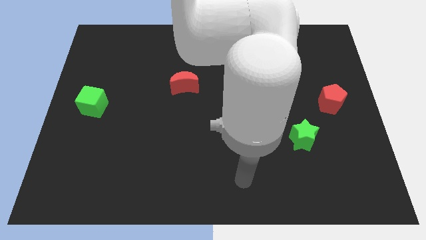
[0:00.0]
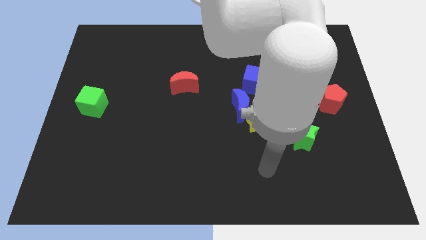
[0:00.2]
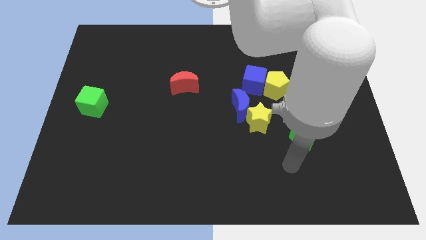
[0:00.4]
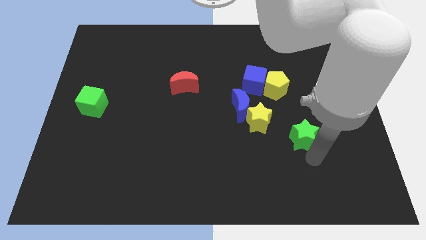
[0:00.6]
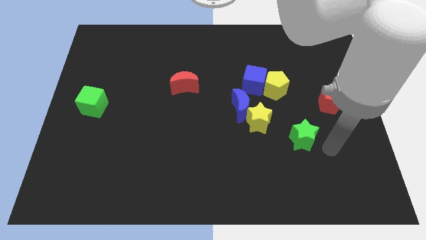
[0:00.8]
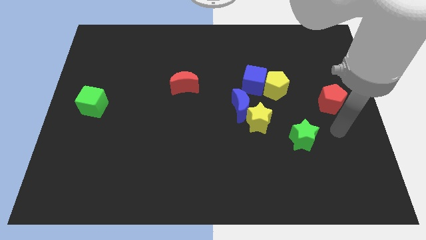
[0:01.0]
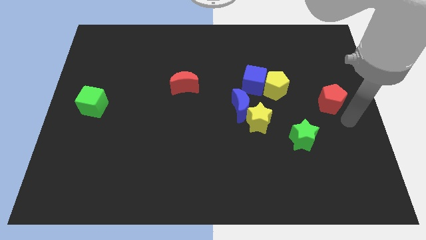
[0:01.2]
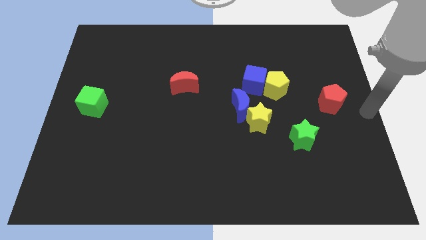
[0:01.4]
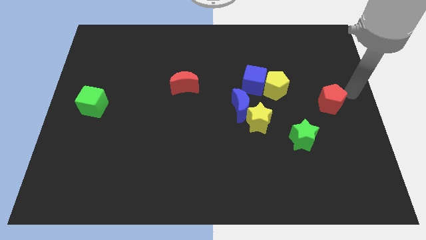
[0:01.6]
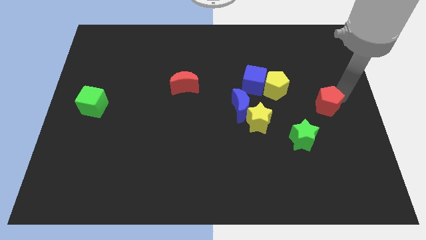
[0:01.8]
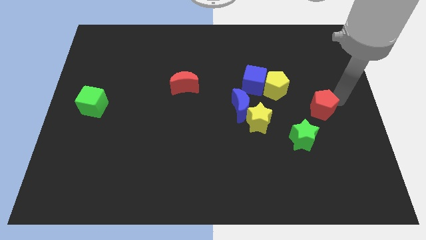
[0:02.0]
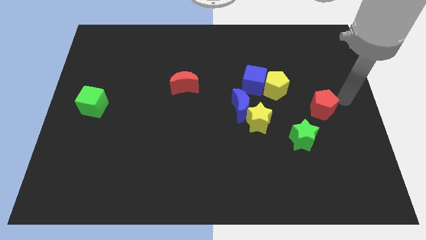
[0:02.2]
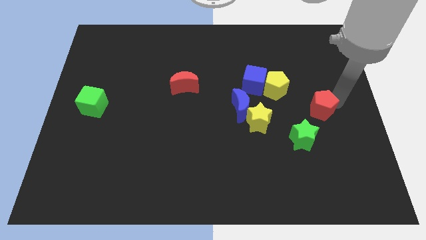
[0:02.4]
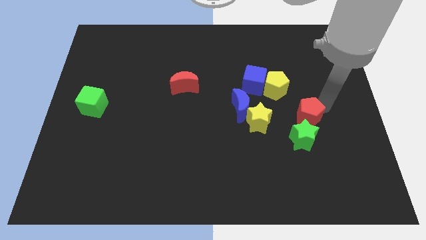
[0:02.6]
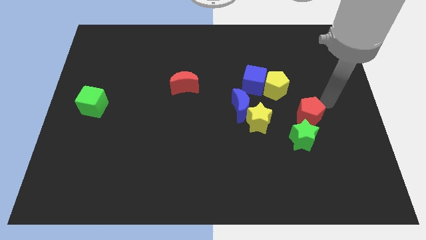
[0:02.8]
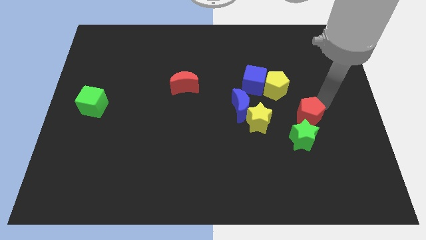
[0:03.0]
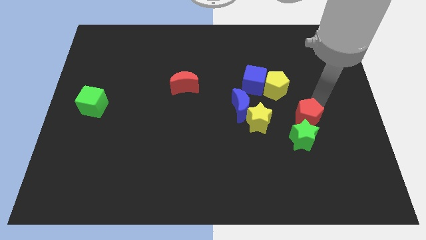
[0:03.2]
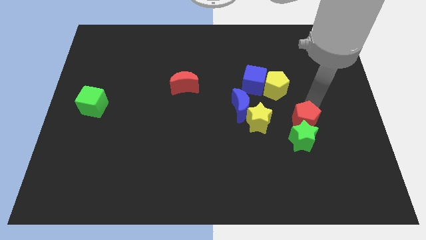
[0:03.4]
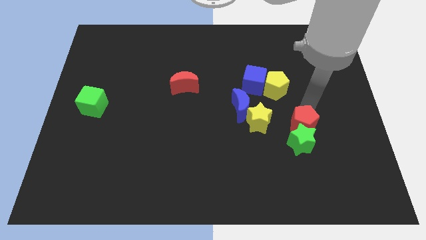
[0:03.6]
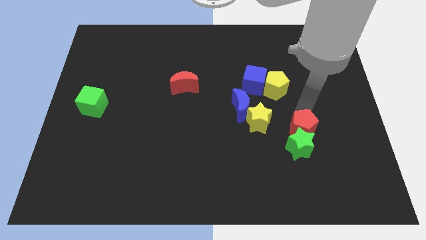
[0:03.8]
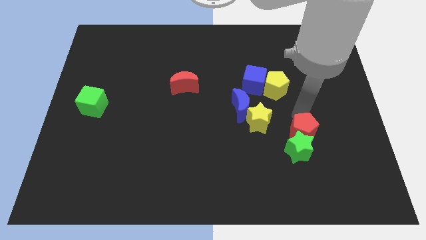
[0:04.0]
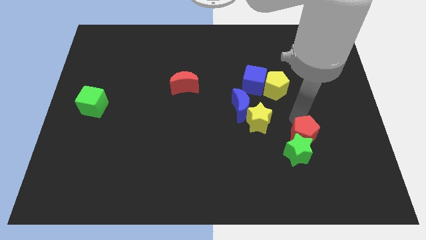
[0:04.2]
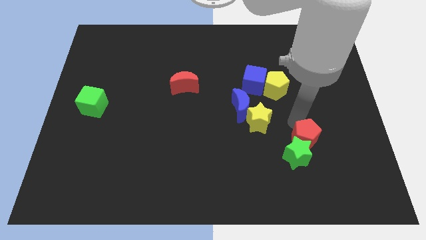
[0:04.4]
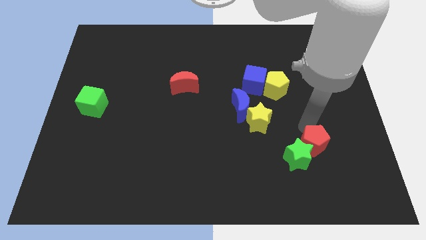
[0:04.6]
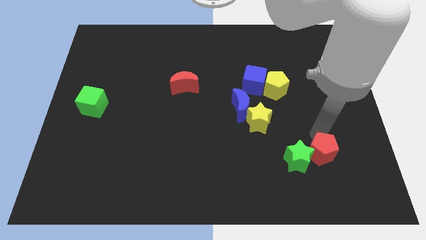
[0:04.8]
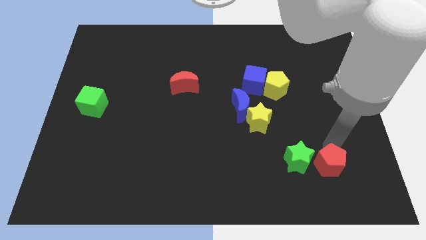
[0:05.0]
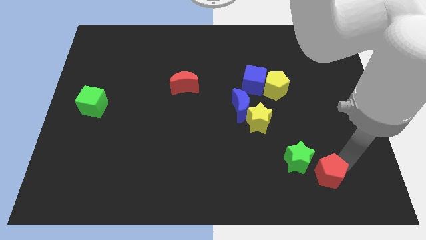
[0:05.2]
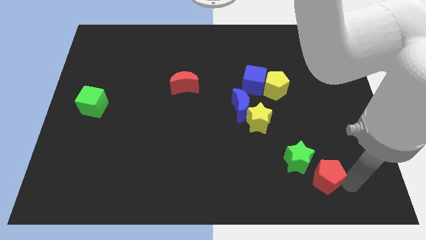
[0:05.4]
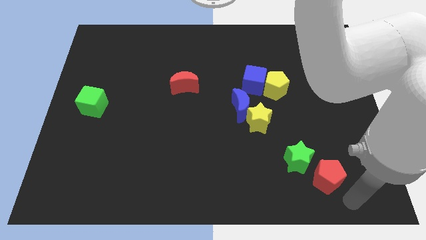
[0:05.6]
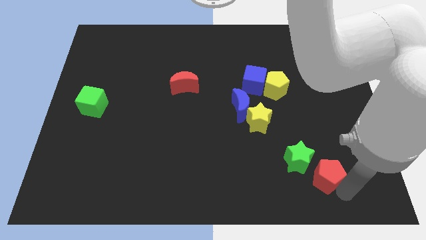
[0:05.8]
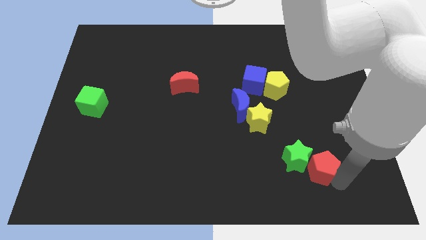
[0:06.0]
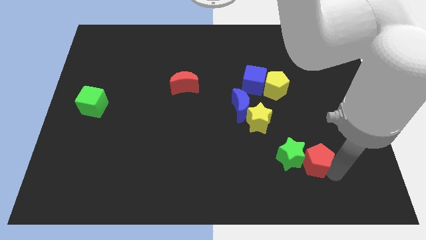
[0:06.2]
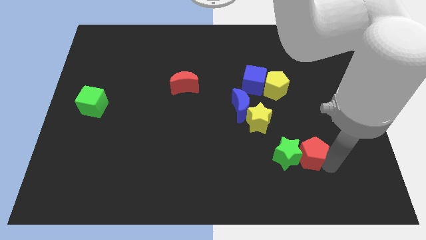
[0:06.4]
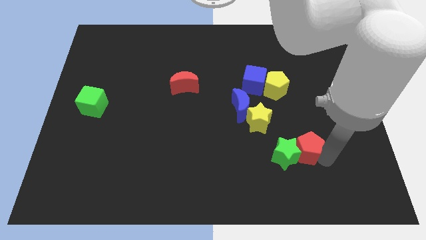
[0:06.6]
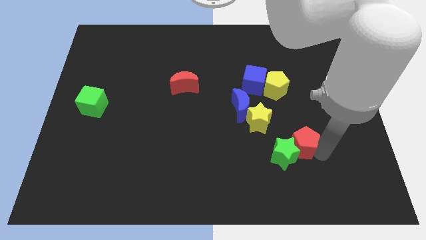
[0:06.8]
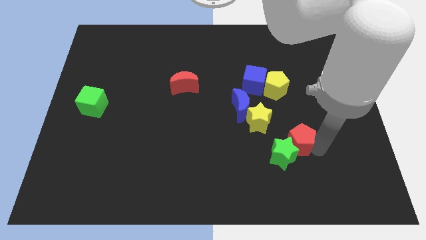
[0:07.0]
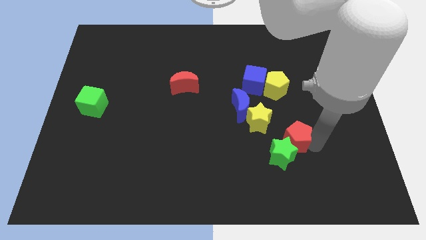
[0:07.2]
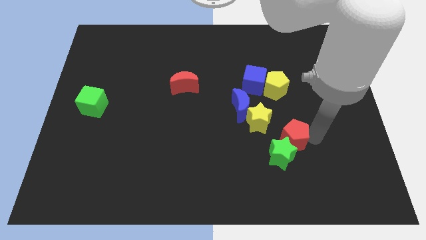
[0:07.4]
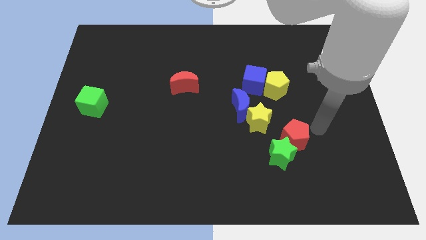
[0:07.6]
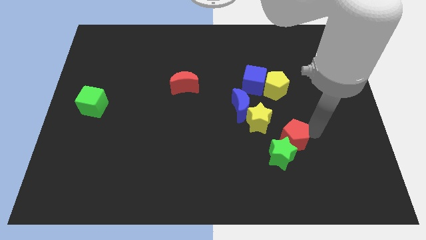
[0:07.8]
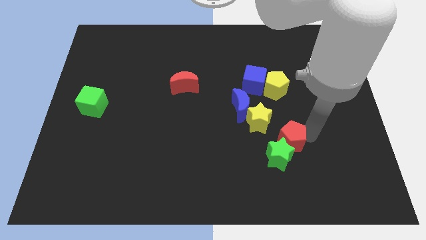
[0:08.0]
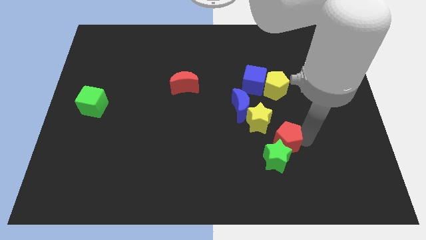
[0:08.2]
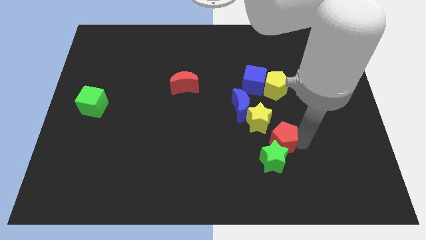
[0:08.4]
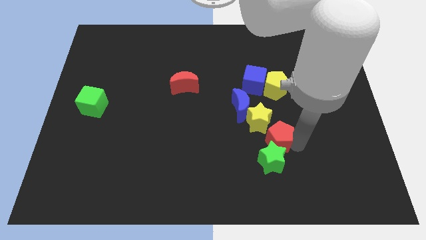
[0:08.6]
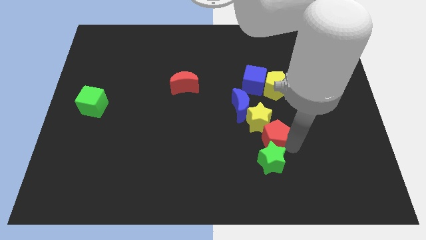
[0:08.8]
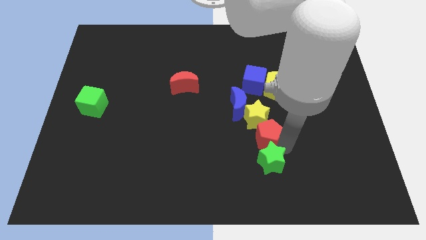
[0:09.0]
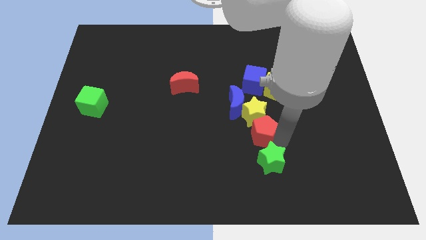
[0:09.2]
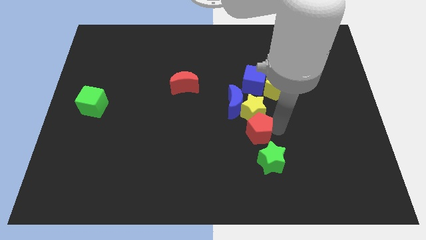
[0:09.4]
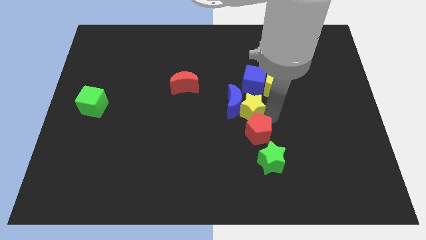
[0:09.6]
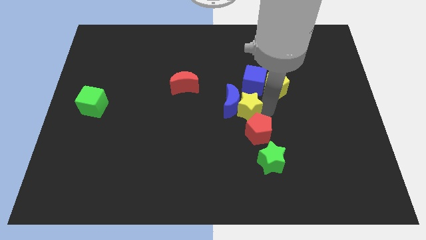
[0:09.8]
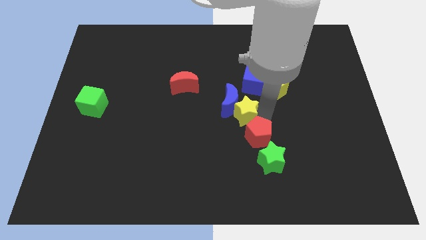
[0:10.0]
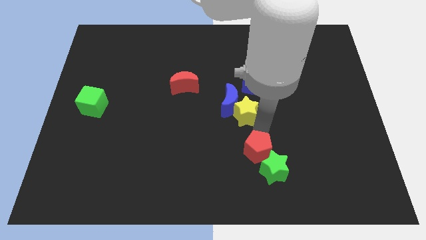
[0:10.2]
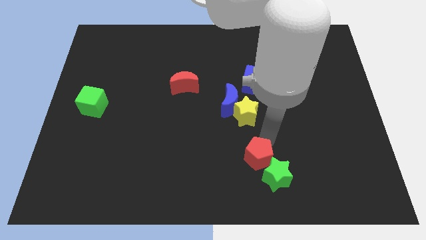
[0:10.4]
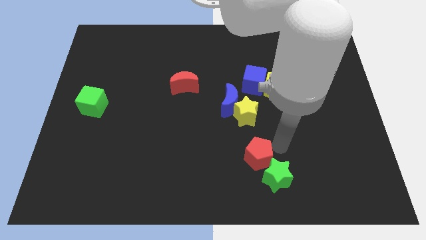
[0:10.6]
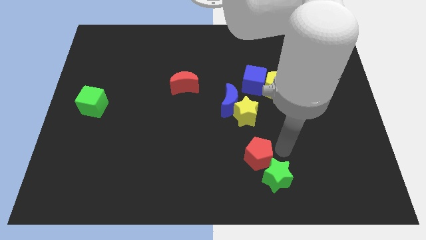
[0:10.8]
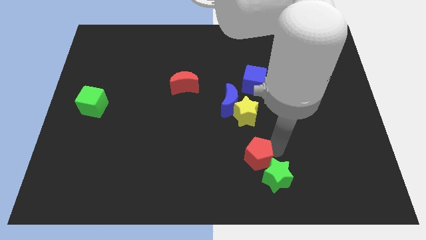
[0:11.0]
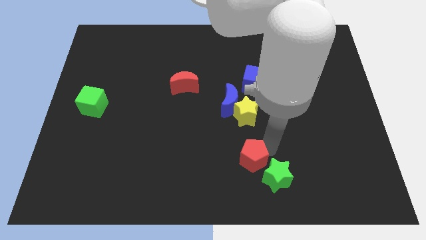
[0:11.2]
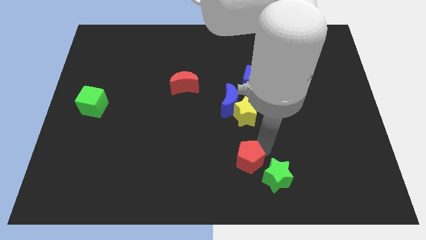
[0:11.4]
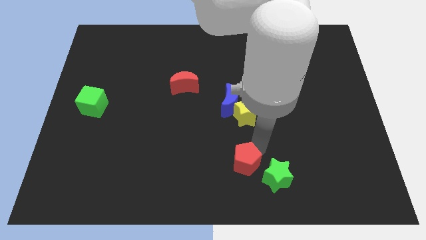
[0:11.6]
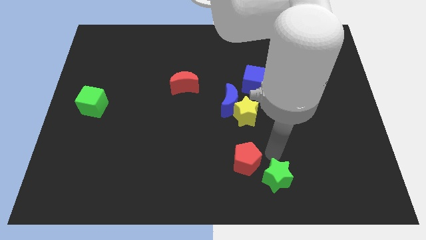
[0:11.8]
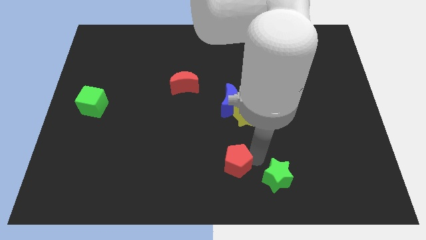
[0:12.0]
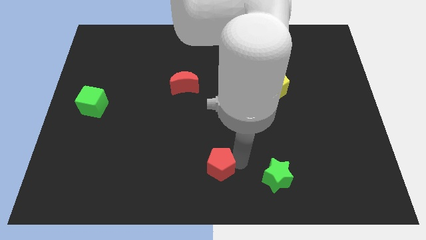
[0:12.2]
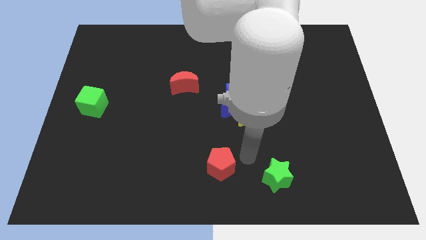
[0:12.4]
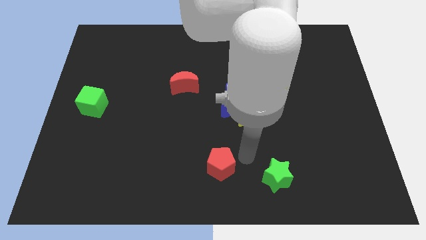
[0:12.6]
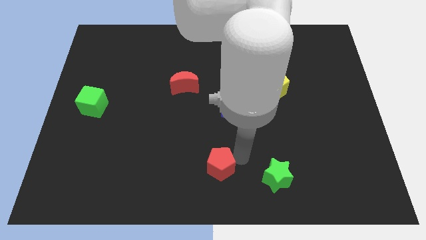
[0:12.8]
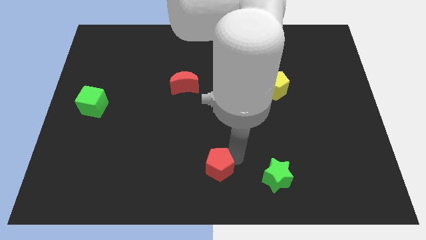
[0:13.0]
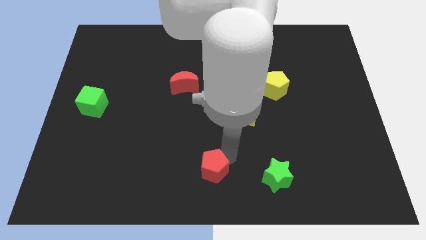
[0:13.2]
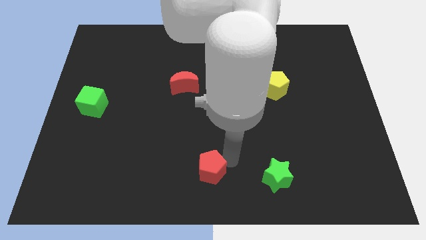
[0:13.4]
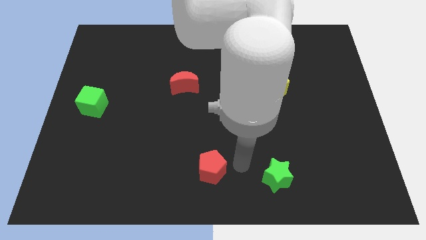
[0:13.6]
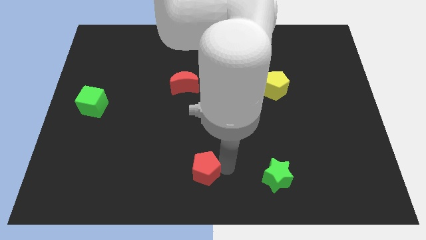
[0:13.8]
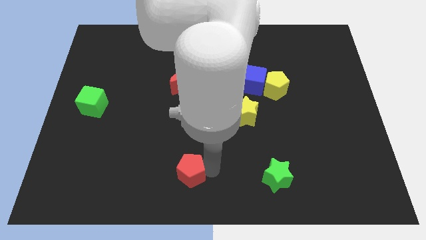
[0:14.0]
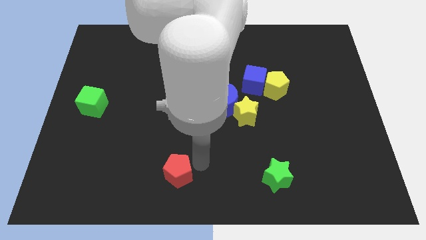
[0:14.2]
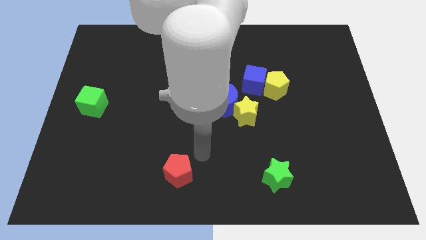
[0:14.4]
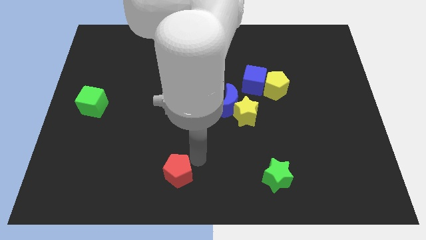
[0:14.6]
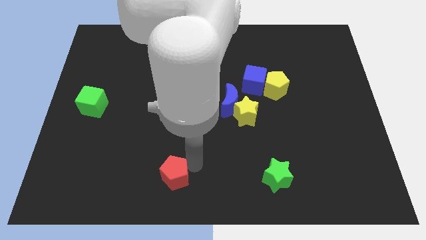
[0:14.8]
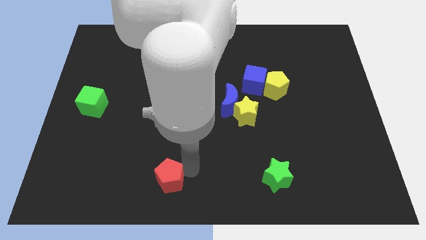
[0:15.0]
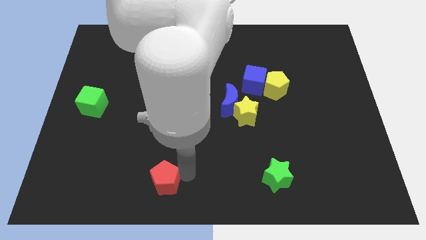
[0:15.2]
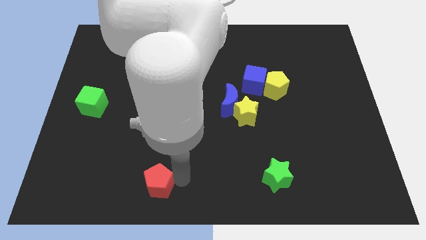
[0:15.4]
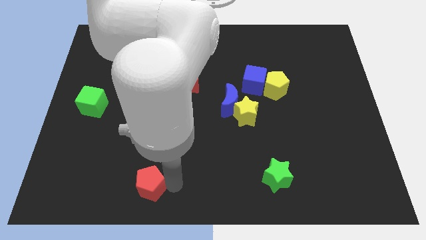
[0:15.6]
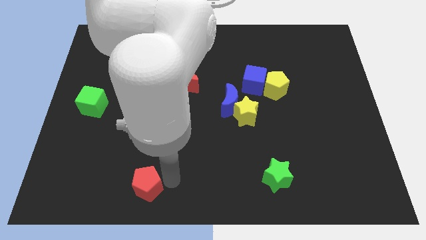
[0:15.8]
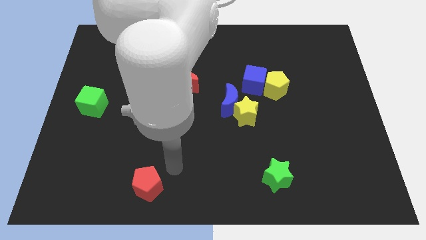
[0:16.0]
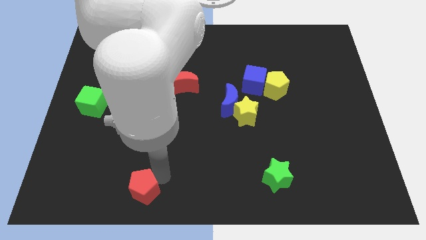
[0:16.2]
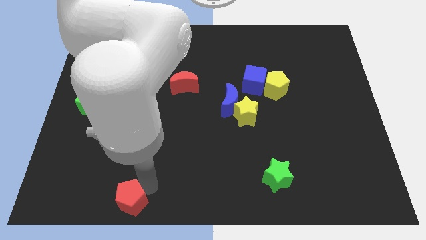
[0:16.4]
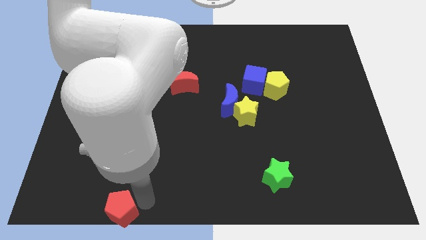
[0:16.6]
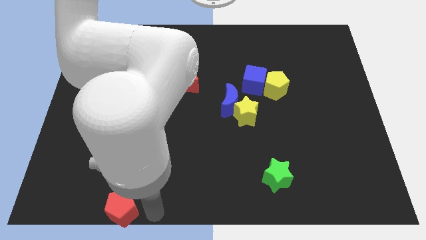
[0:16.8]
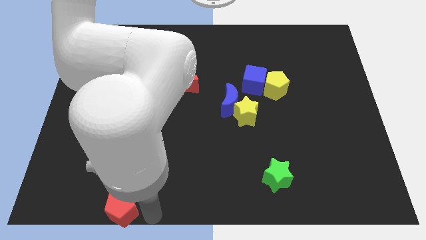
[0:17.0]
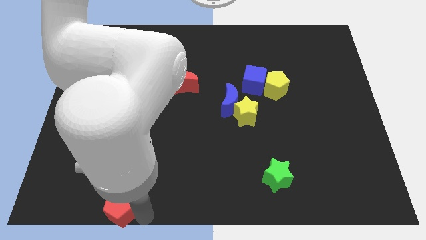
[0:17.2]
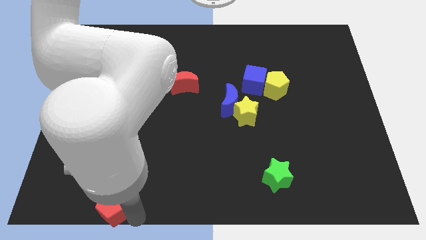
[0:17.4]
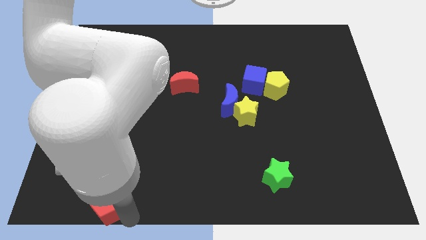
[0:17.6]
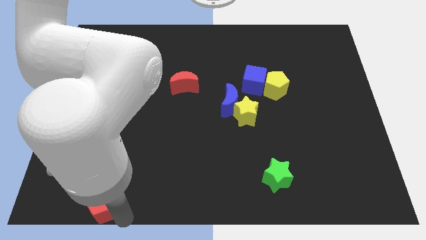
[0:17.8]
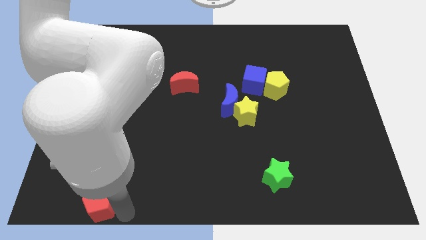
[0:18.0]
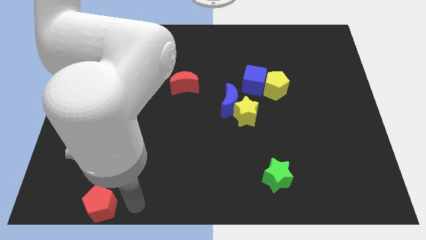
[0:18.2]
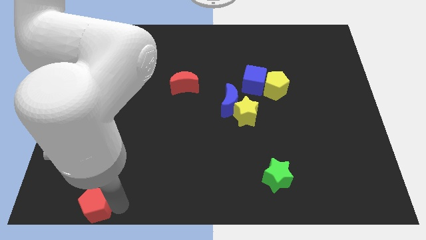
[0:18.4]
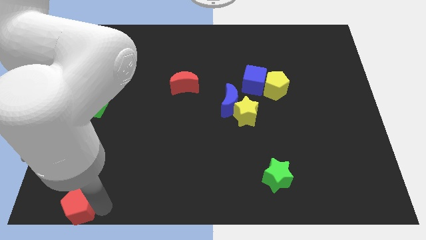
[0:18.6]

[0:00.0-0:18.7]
move the red pentagon to the bottom left corner
